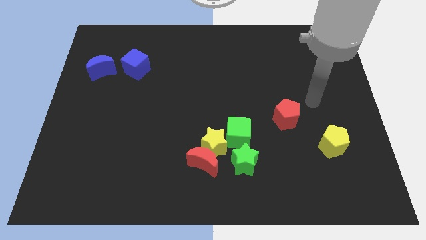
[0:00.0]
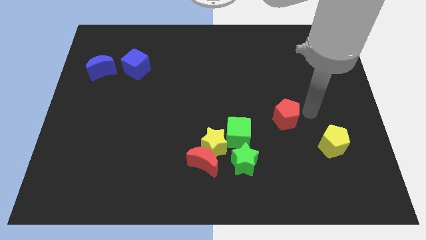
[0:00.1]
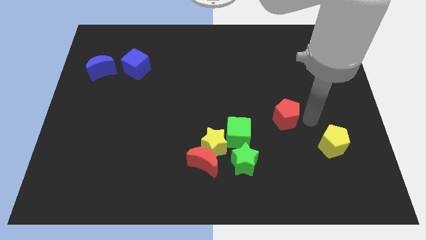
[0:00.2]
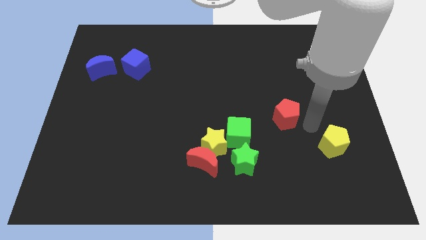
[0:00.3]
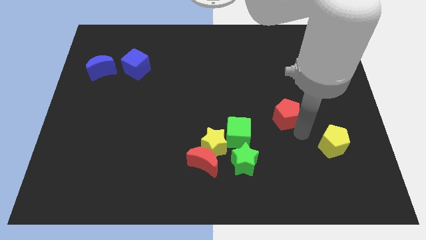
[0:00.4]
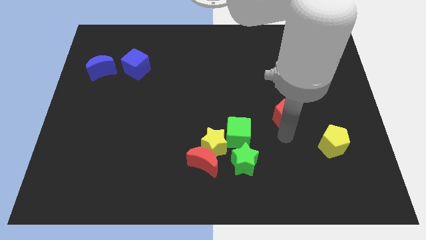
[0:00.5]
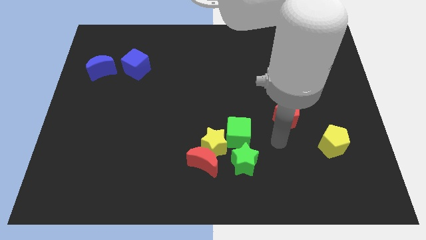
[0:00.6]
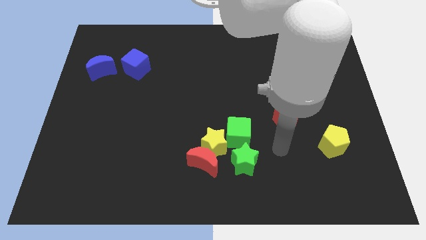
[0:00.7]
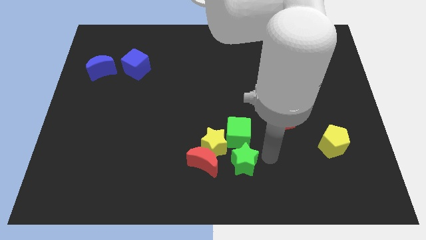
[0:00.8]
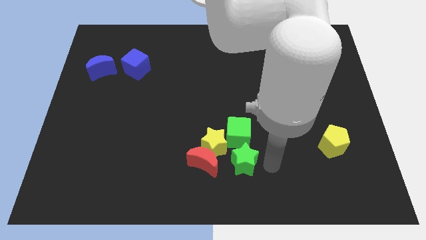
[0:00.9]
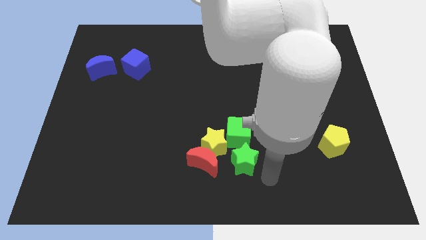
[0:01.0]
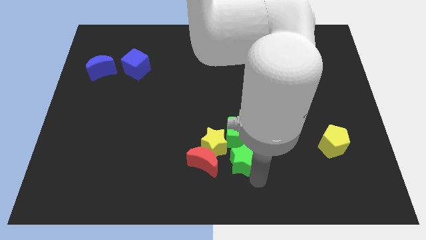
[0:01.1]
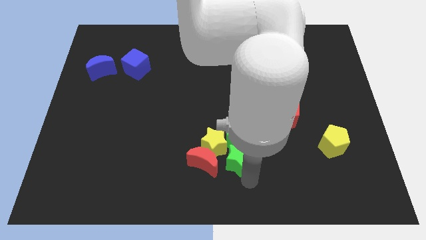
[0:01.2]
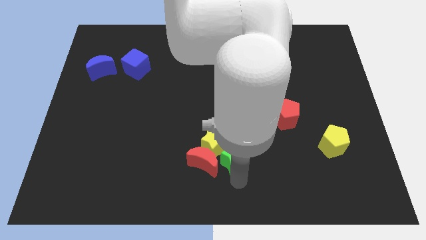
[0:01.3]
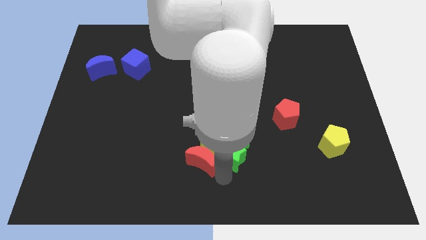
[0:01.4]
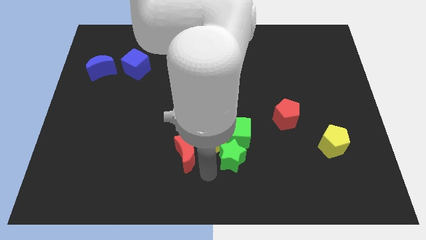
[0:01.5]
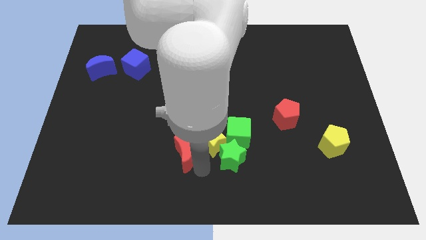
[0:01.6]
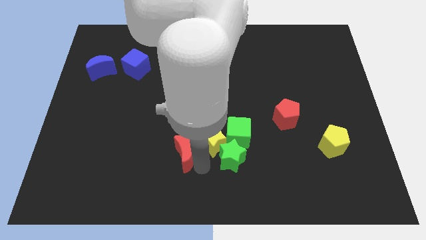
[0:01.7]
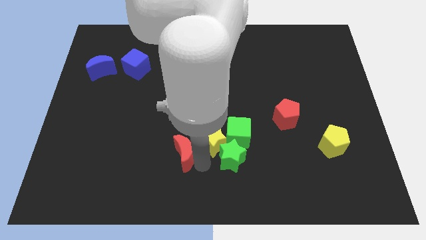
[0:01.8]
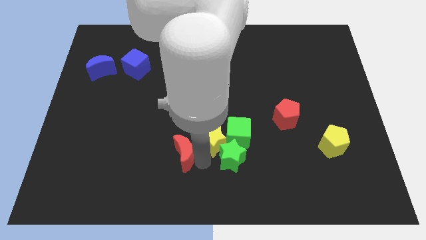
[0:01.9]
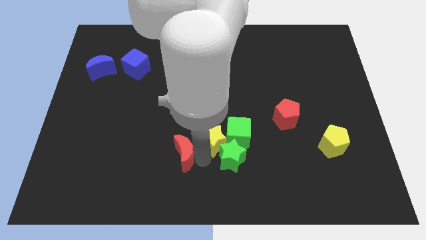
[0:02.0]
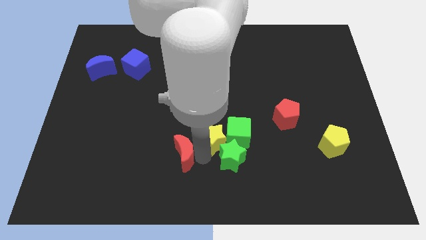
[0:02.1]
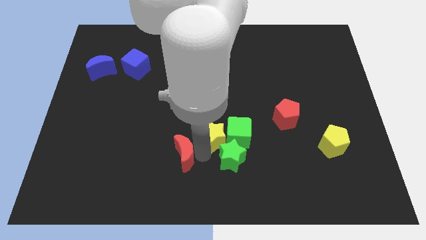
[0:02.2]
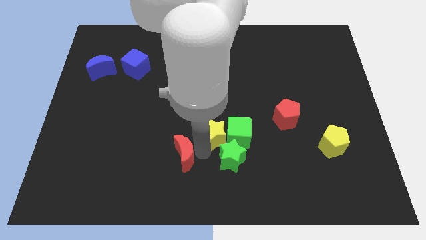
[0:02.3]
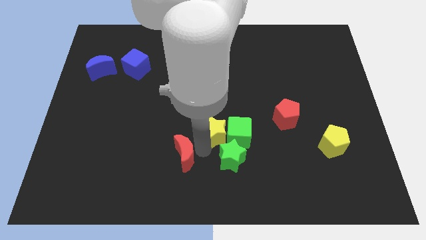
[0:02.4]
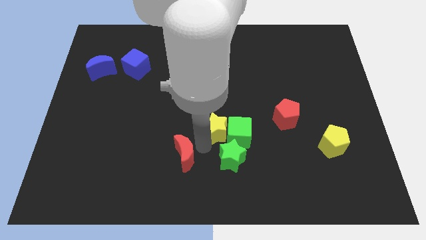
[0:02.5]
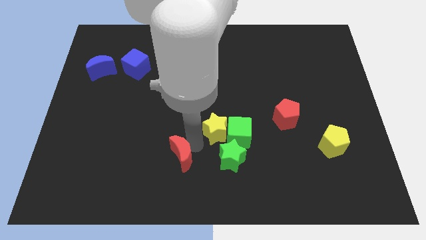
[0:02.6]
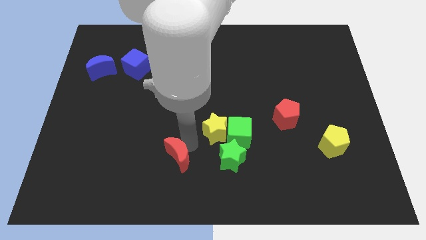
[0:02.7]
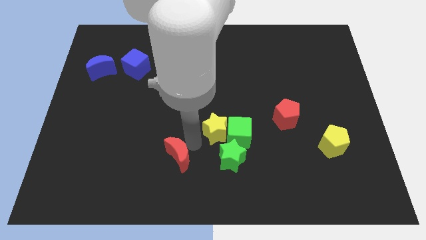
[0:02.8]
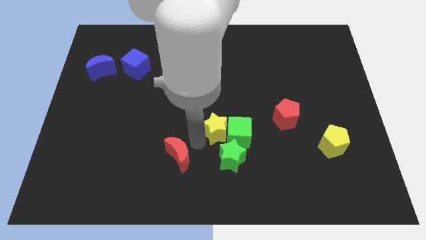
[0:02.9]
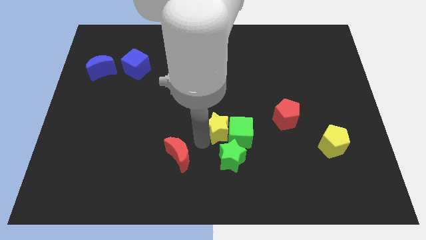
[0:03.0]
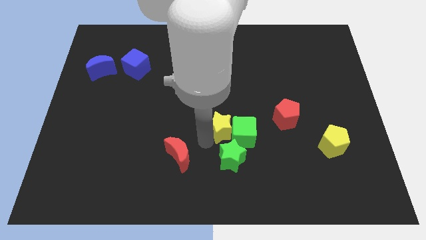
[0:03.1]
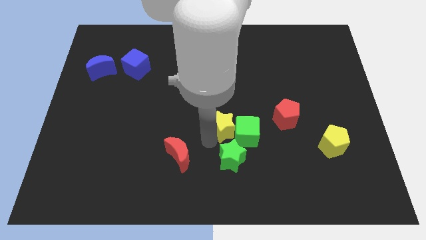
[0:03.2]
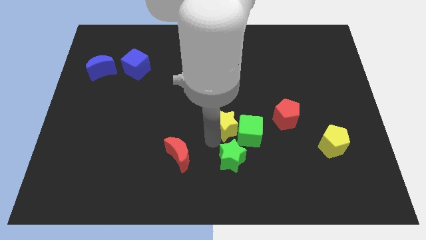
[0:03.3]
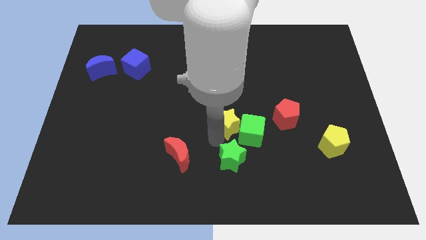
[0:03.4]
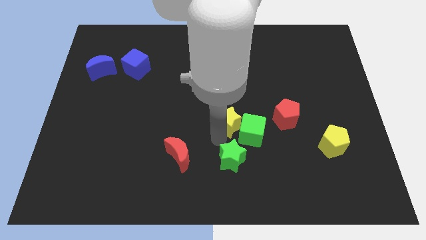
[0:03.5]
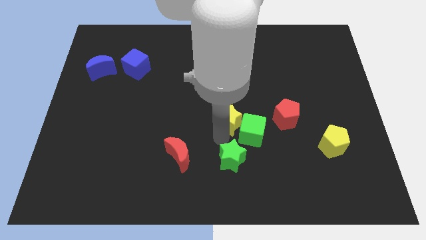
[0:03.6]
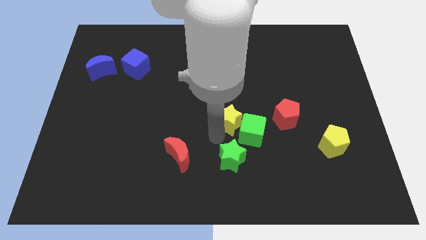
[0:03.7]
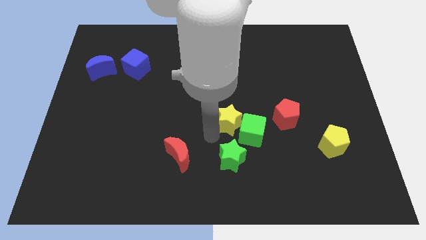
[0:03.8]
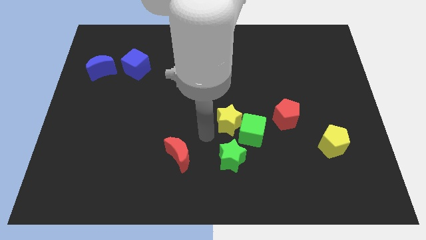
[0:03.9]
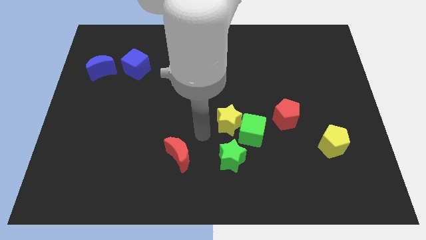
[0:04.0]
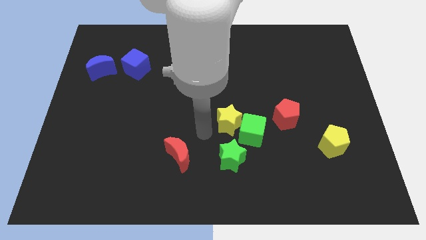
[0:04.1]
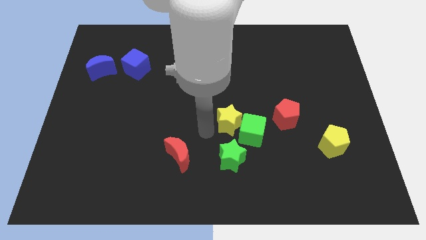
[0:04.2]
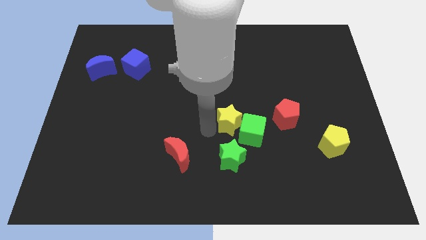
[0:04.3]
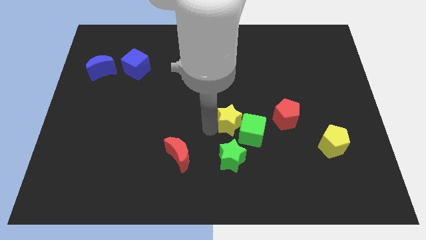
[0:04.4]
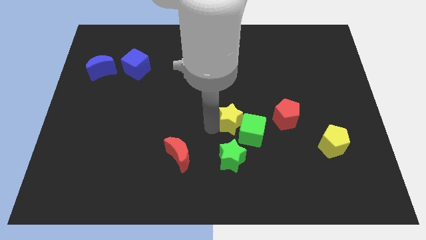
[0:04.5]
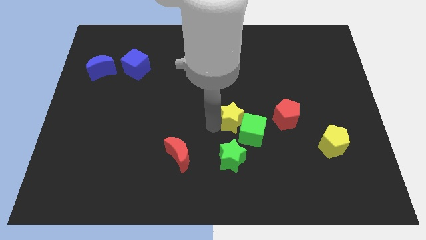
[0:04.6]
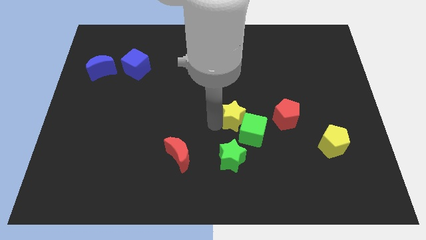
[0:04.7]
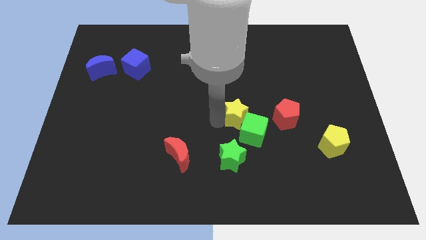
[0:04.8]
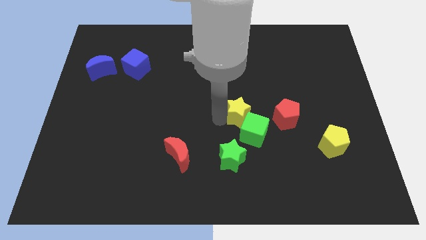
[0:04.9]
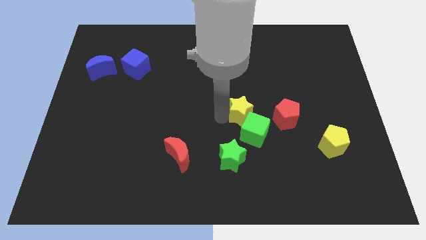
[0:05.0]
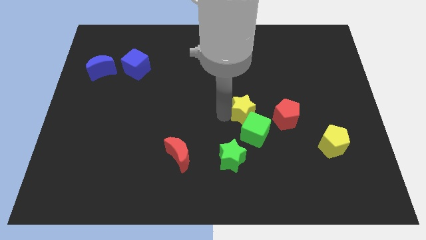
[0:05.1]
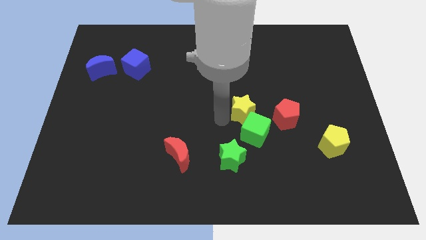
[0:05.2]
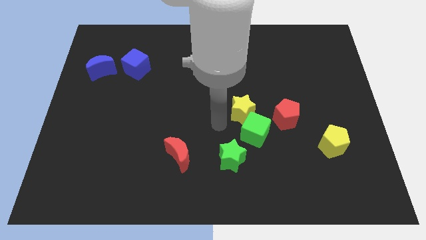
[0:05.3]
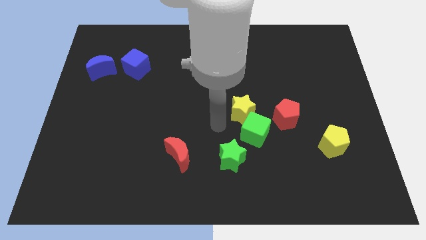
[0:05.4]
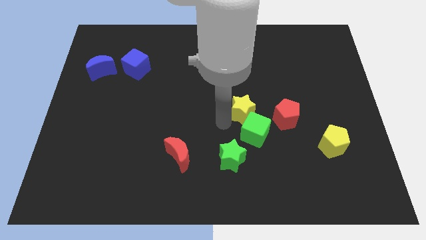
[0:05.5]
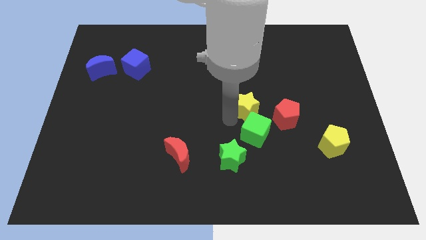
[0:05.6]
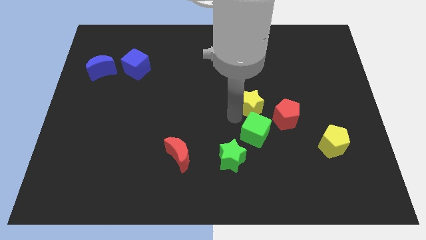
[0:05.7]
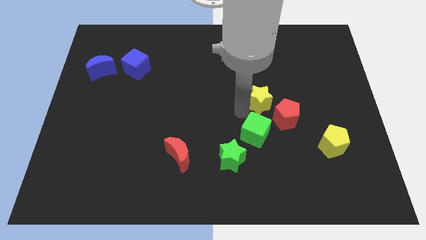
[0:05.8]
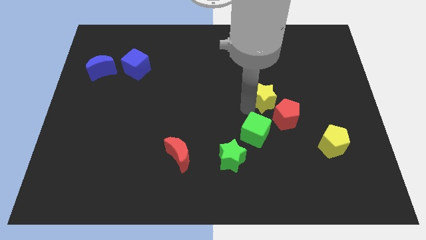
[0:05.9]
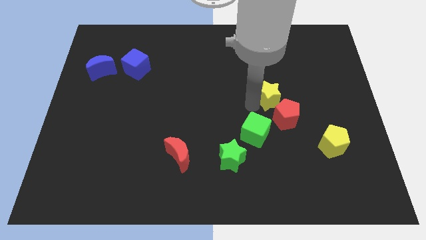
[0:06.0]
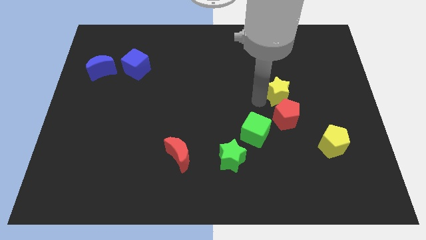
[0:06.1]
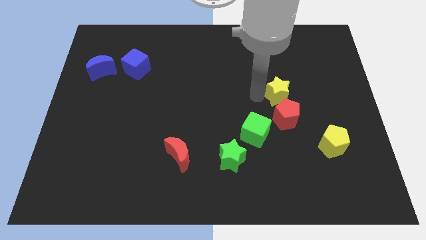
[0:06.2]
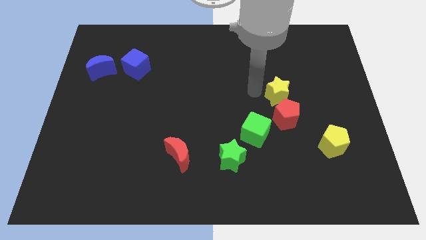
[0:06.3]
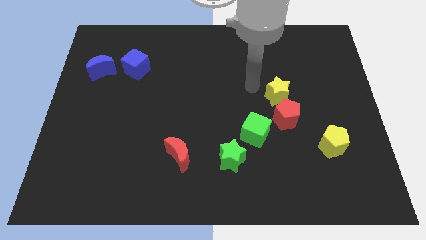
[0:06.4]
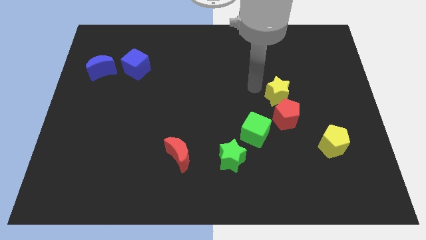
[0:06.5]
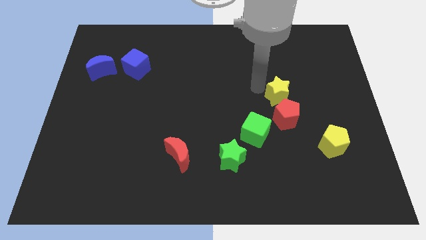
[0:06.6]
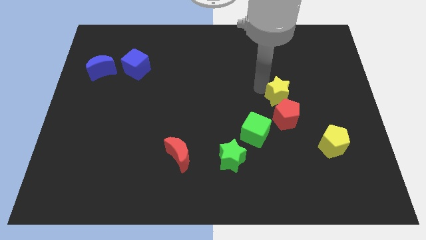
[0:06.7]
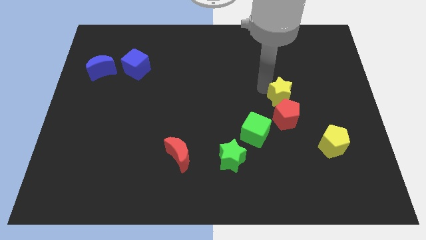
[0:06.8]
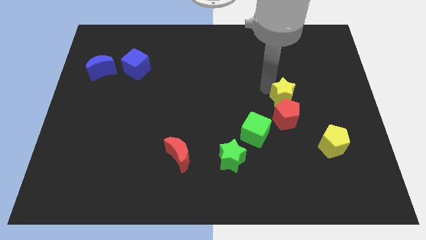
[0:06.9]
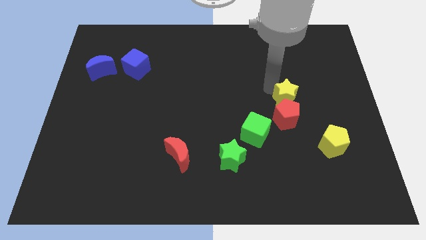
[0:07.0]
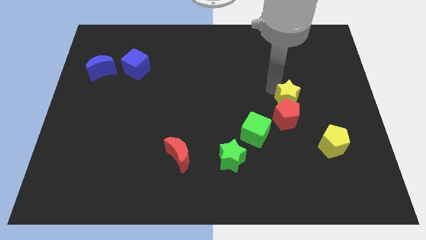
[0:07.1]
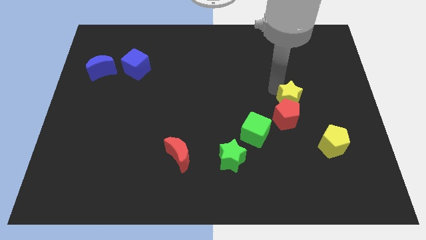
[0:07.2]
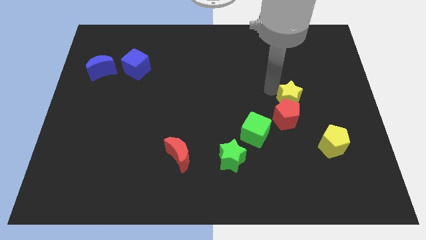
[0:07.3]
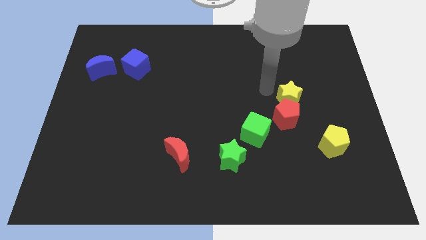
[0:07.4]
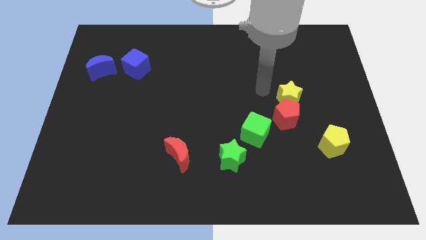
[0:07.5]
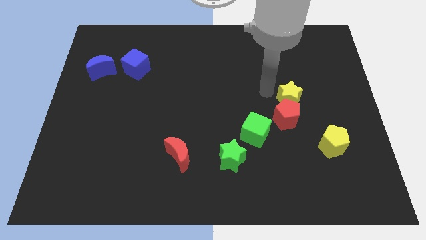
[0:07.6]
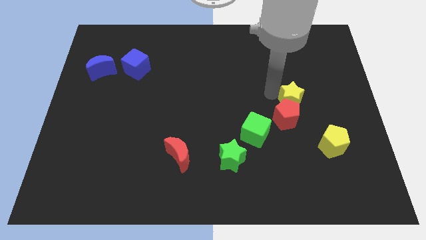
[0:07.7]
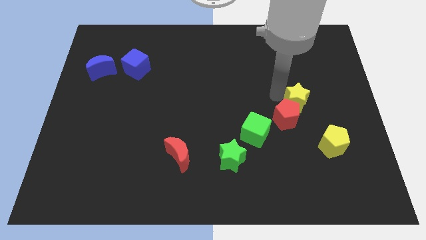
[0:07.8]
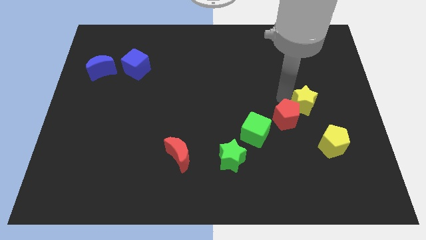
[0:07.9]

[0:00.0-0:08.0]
slide the yellow star to the top of the yellow pentagon
